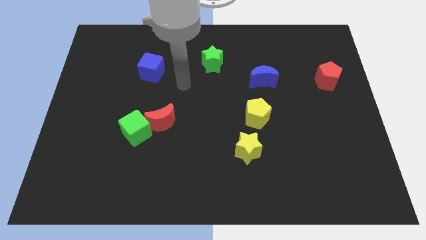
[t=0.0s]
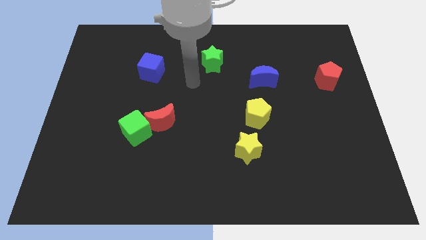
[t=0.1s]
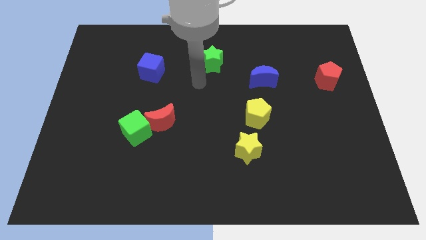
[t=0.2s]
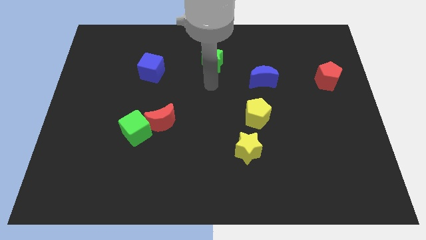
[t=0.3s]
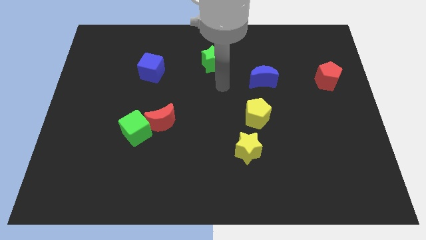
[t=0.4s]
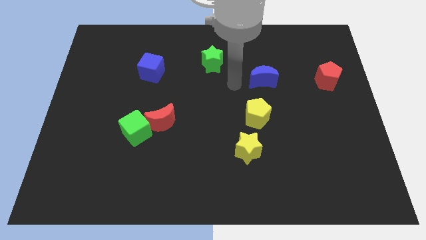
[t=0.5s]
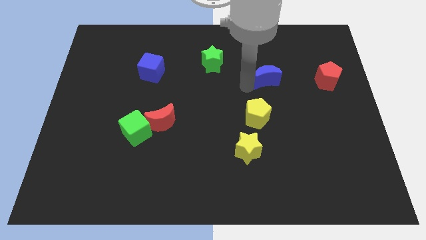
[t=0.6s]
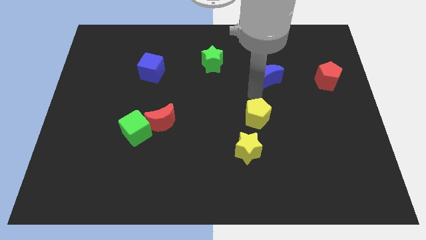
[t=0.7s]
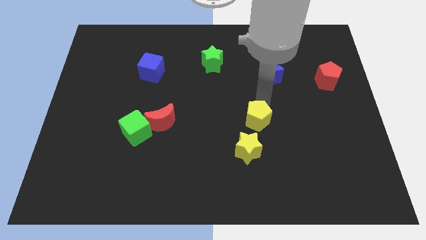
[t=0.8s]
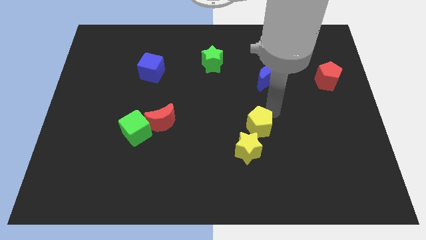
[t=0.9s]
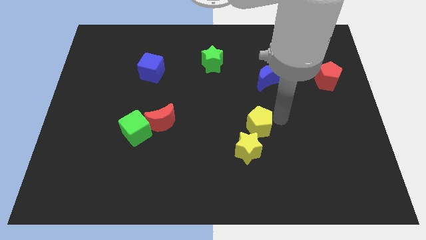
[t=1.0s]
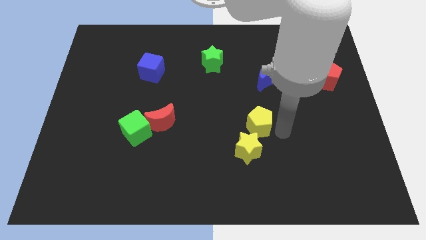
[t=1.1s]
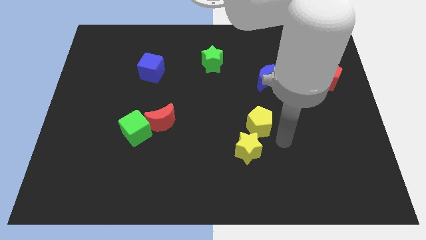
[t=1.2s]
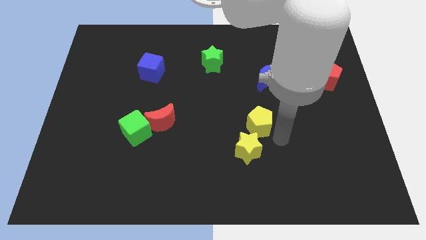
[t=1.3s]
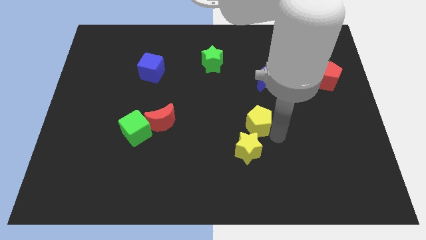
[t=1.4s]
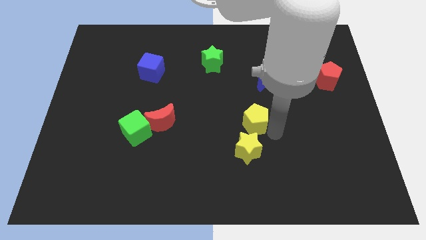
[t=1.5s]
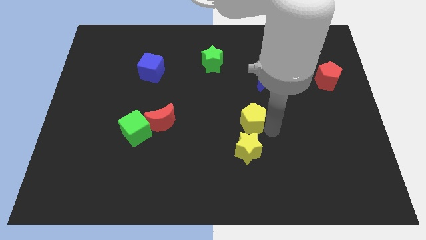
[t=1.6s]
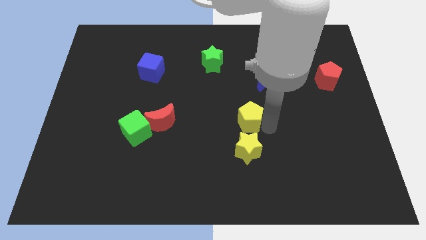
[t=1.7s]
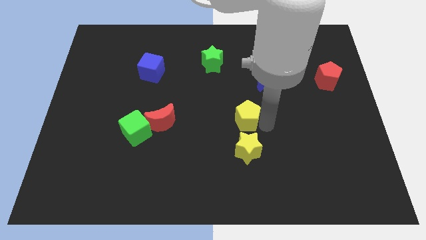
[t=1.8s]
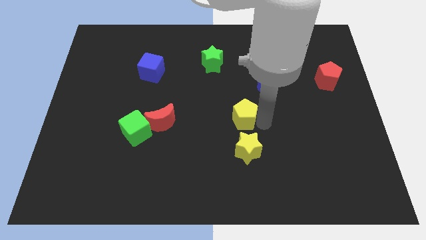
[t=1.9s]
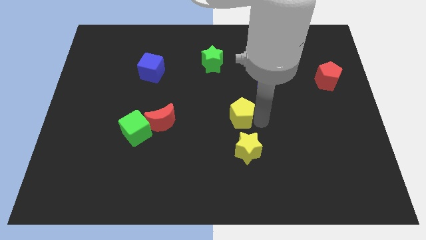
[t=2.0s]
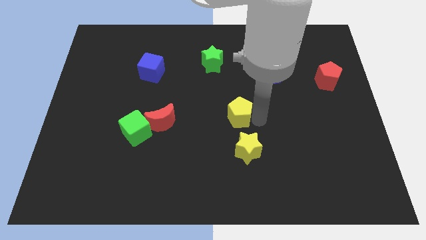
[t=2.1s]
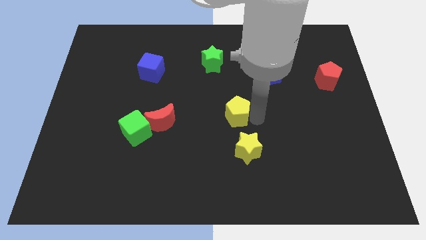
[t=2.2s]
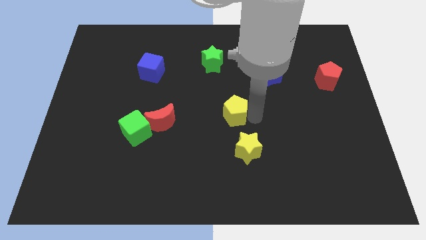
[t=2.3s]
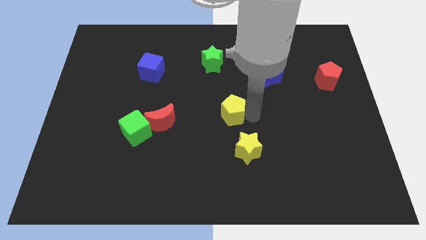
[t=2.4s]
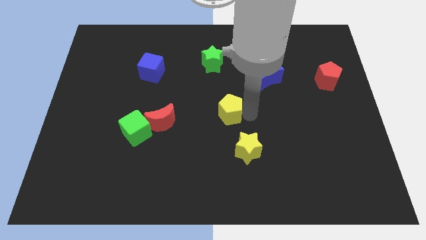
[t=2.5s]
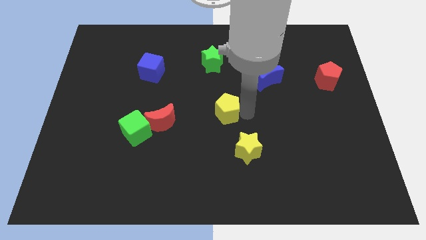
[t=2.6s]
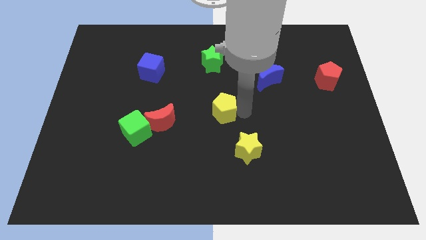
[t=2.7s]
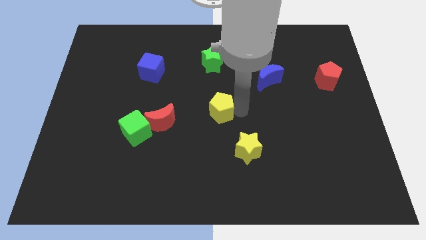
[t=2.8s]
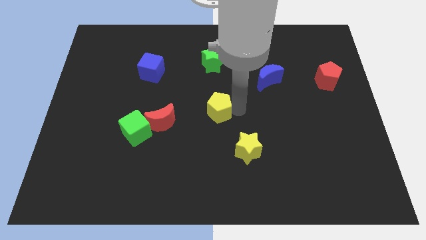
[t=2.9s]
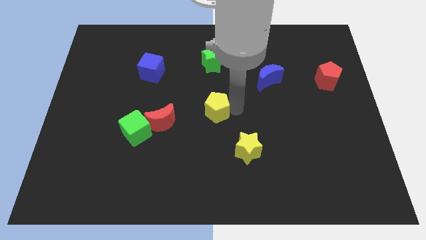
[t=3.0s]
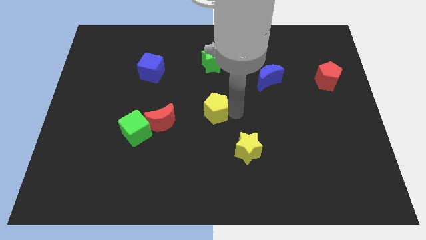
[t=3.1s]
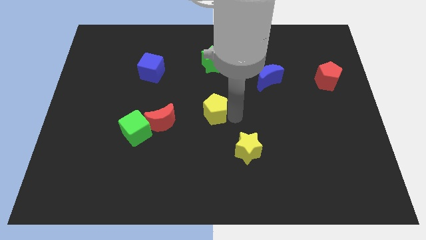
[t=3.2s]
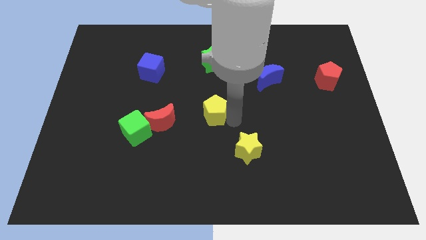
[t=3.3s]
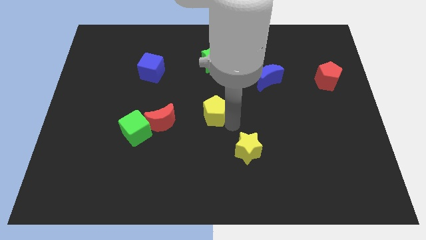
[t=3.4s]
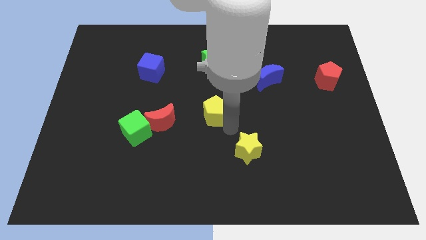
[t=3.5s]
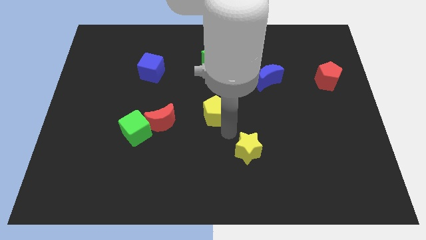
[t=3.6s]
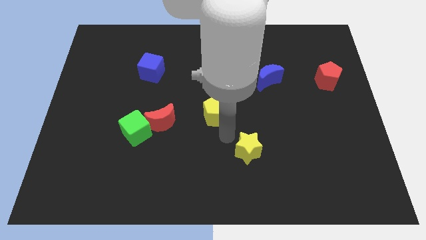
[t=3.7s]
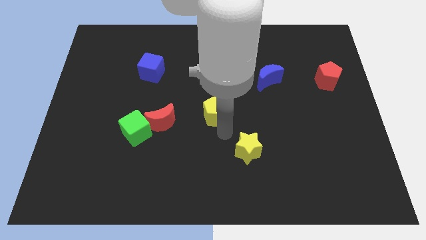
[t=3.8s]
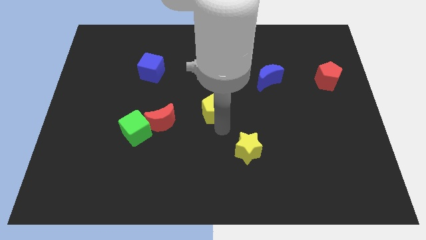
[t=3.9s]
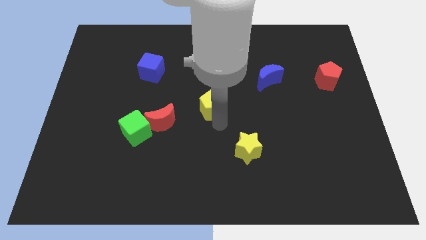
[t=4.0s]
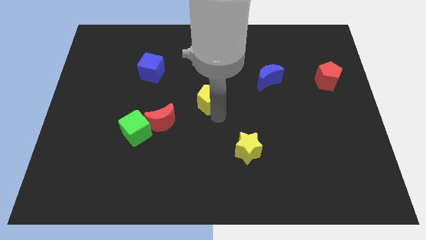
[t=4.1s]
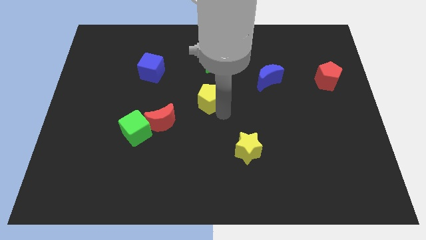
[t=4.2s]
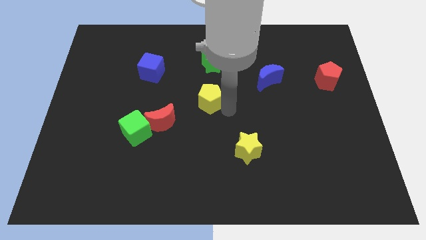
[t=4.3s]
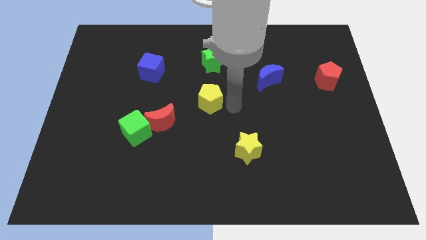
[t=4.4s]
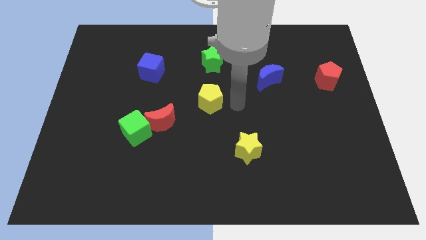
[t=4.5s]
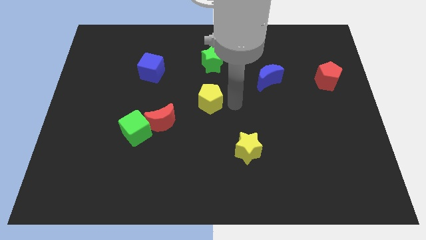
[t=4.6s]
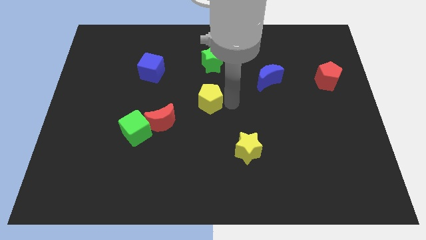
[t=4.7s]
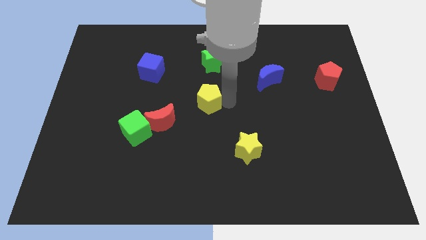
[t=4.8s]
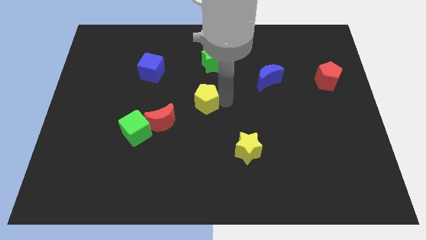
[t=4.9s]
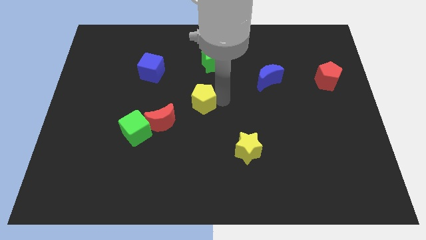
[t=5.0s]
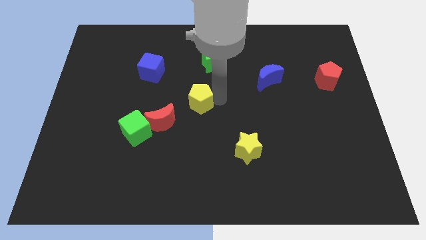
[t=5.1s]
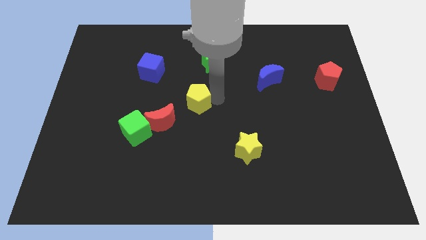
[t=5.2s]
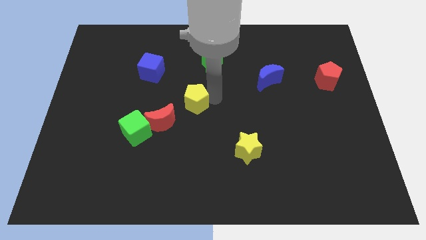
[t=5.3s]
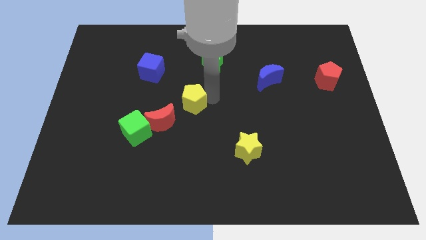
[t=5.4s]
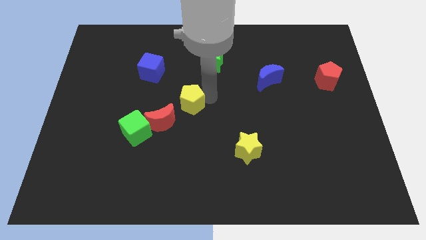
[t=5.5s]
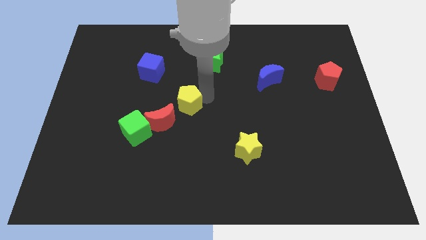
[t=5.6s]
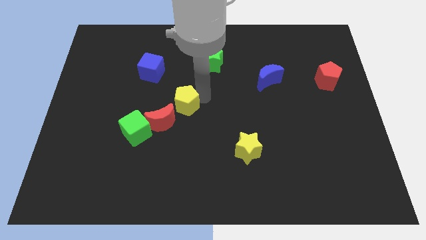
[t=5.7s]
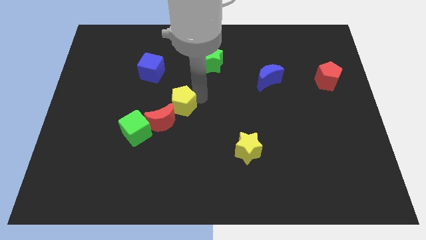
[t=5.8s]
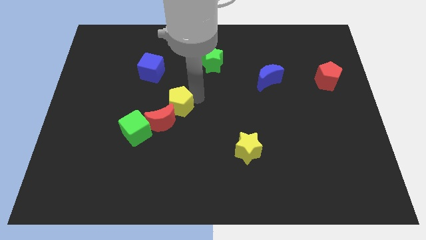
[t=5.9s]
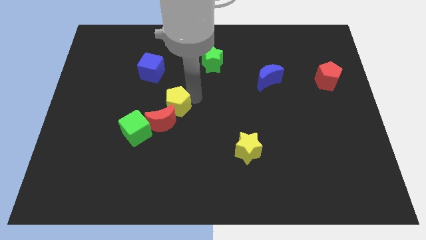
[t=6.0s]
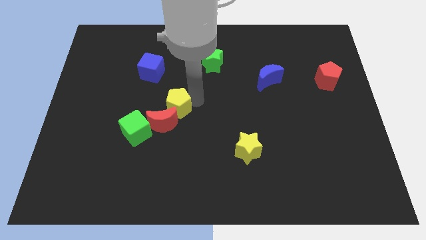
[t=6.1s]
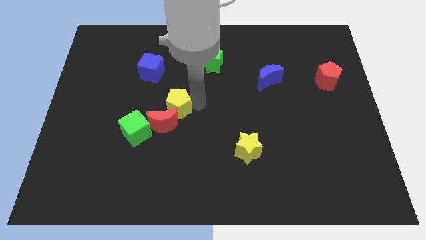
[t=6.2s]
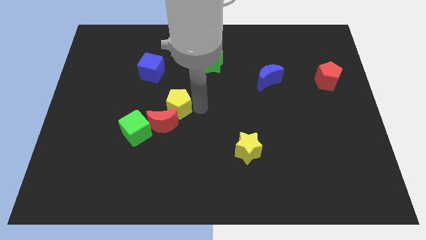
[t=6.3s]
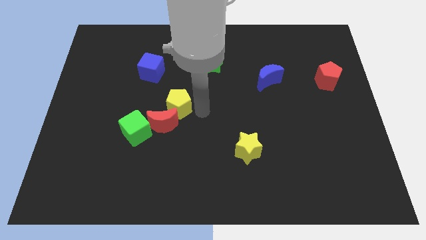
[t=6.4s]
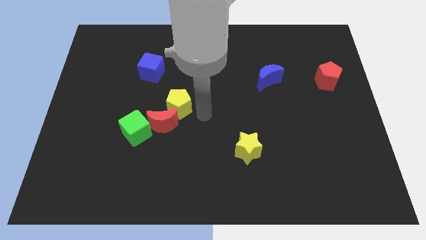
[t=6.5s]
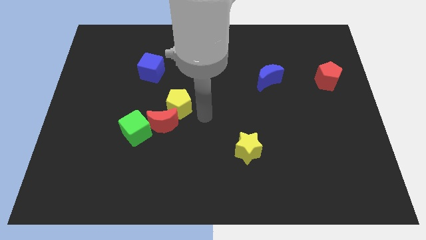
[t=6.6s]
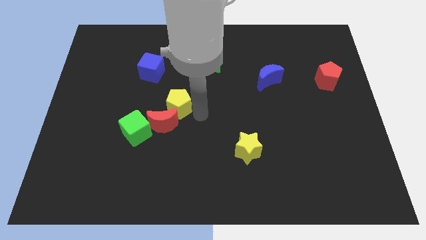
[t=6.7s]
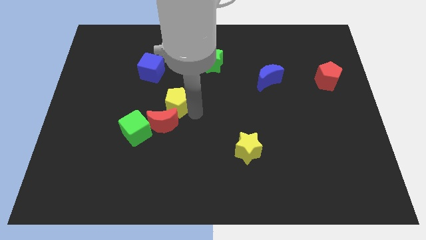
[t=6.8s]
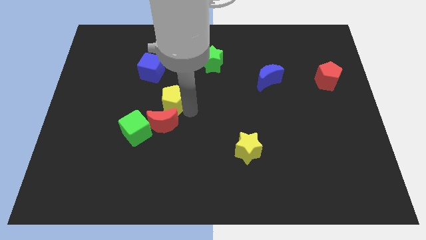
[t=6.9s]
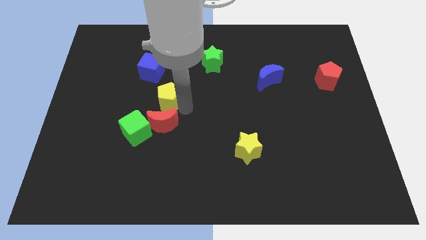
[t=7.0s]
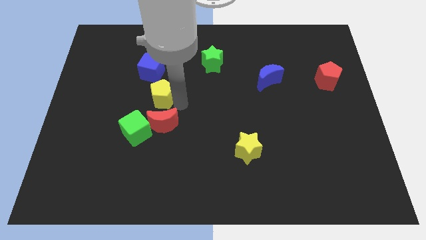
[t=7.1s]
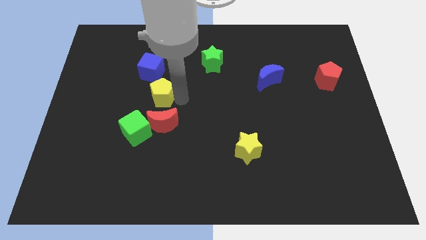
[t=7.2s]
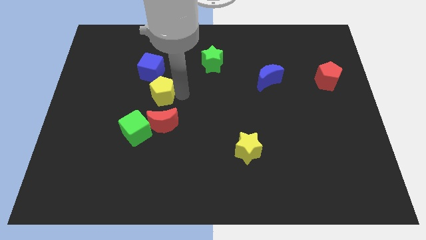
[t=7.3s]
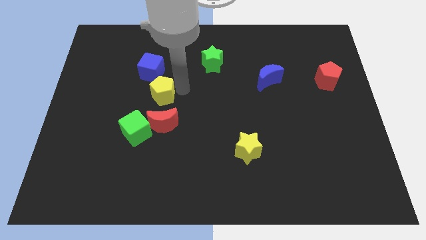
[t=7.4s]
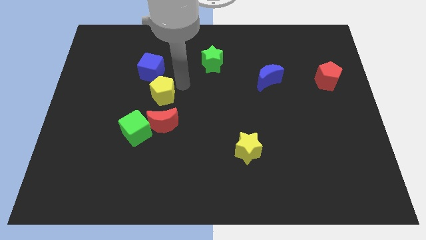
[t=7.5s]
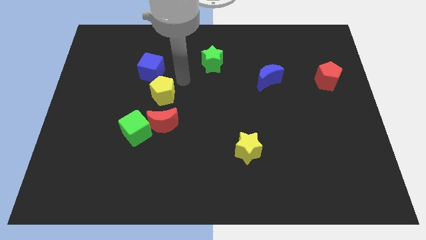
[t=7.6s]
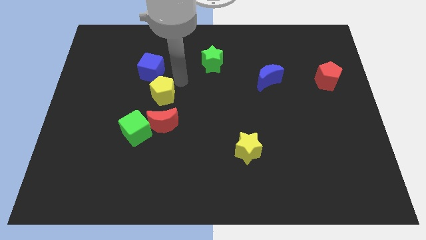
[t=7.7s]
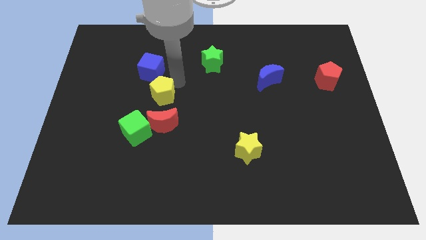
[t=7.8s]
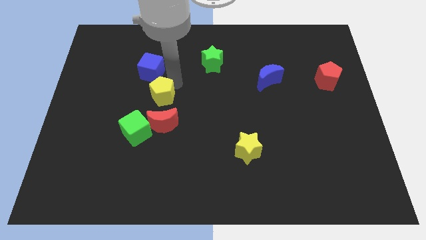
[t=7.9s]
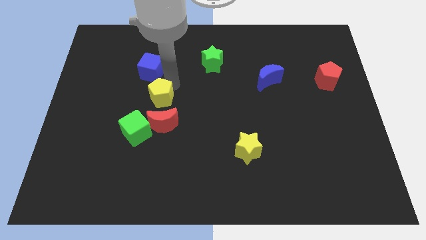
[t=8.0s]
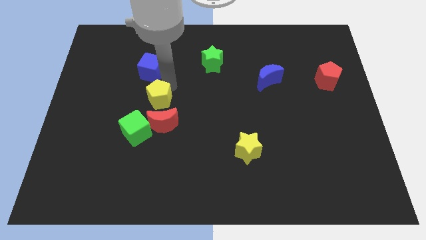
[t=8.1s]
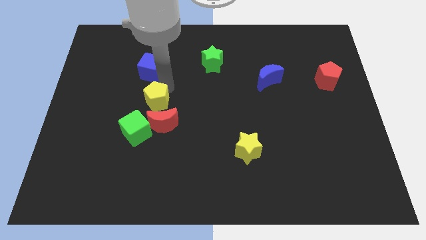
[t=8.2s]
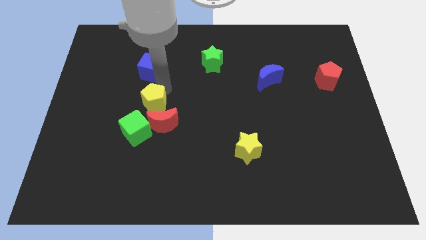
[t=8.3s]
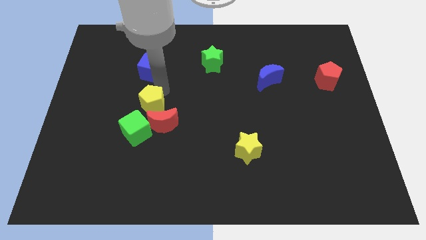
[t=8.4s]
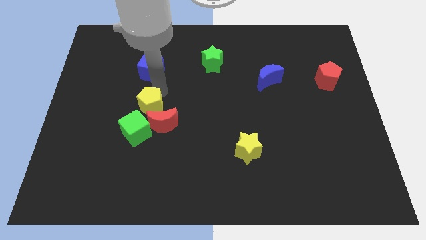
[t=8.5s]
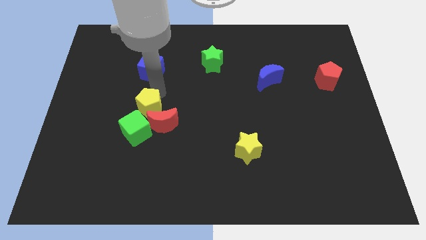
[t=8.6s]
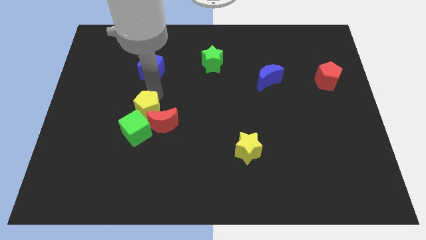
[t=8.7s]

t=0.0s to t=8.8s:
push the yellow pentagon to the left side of the red moon
